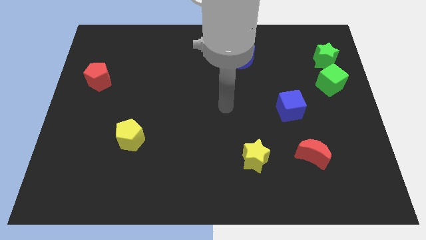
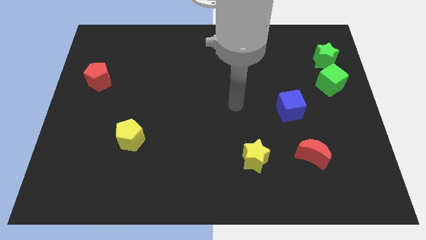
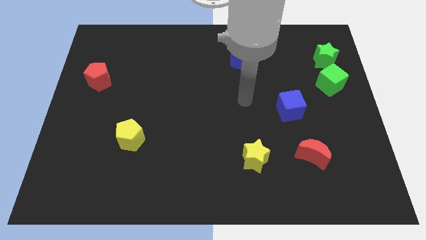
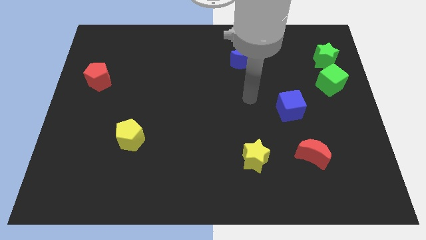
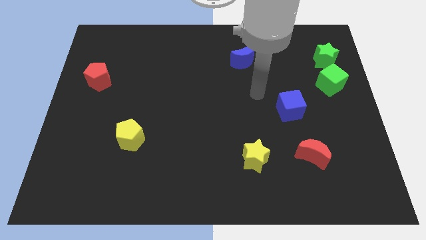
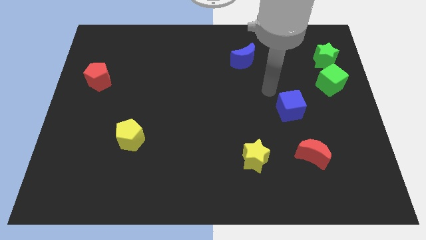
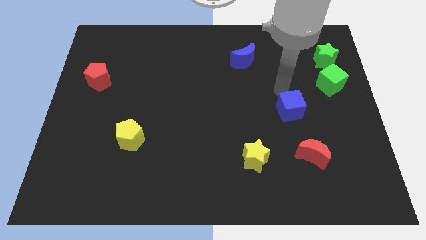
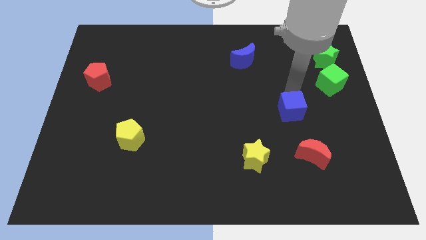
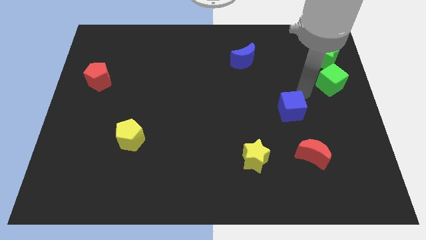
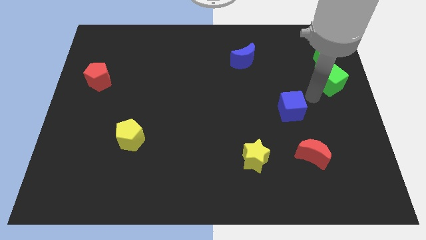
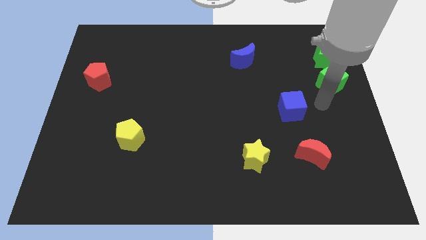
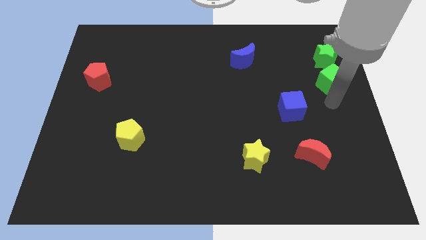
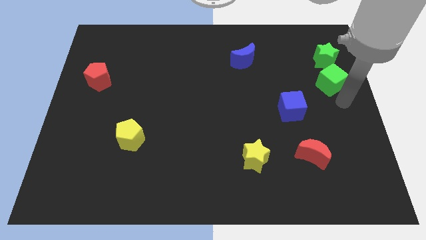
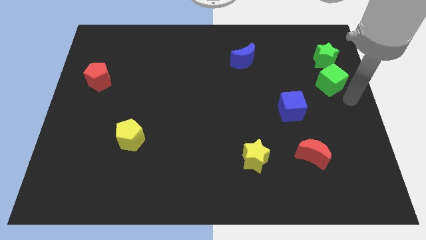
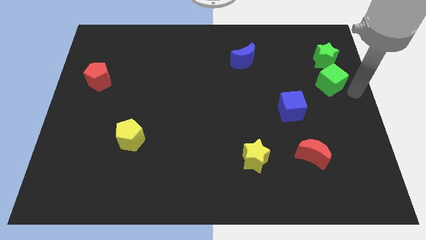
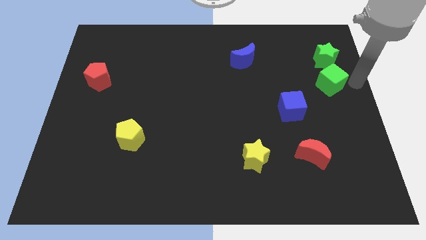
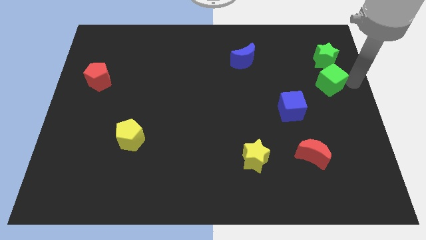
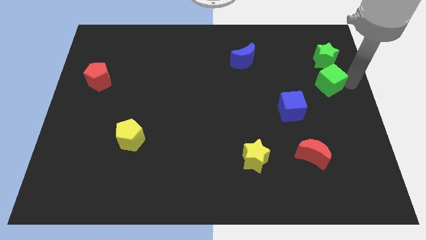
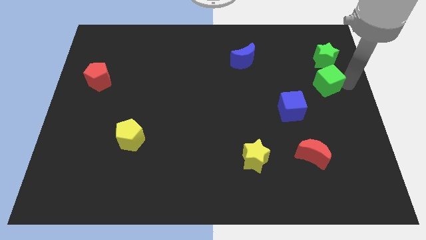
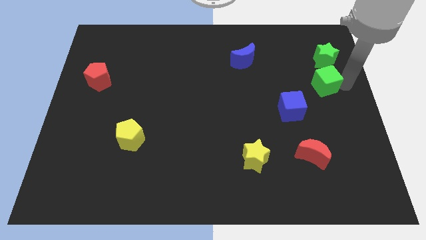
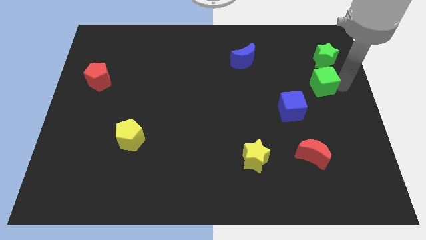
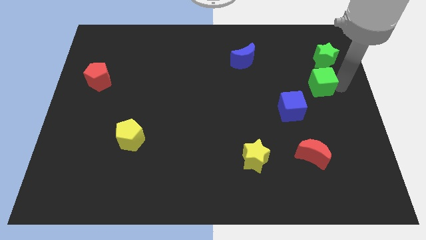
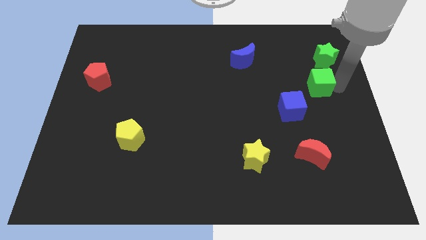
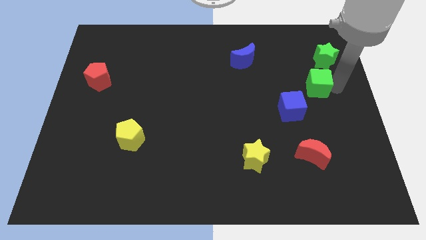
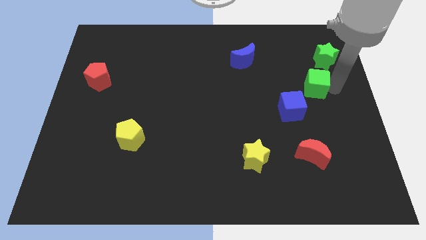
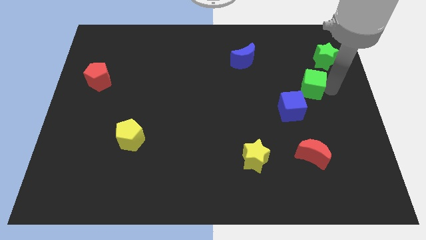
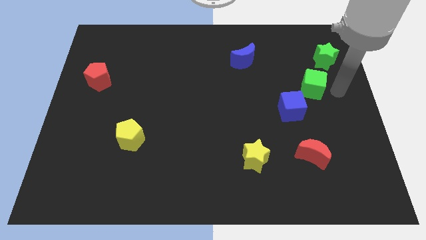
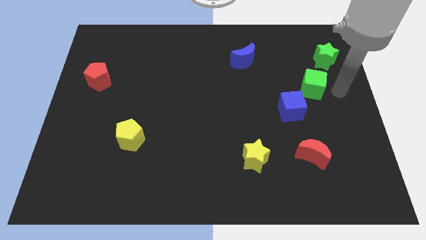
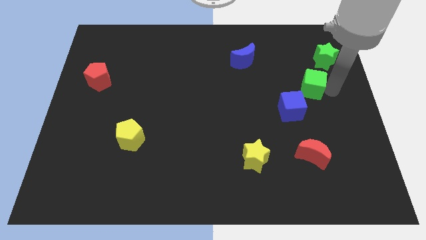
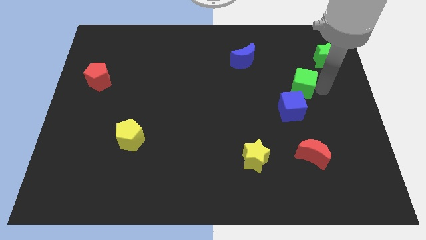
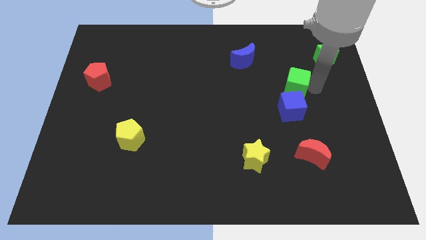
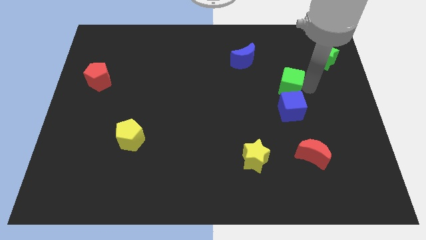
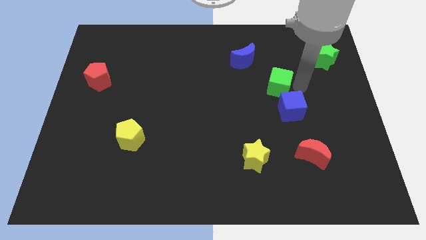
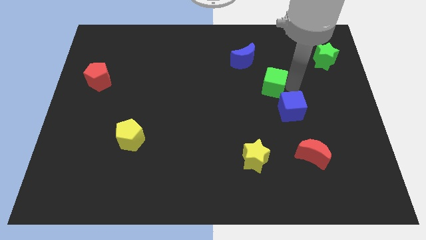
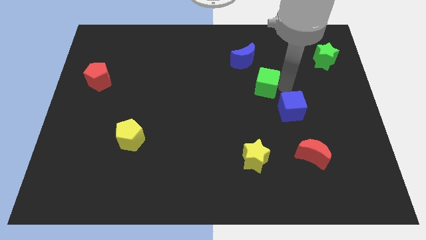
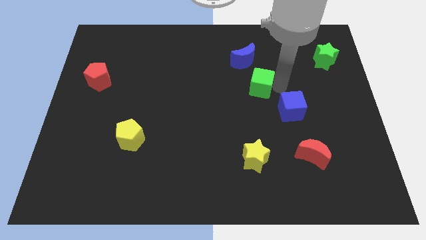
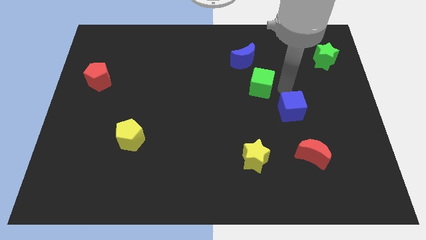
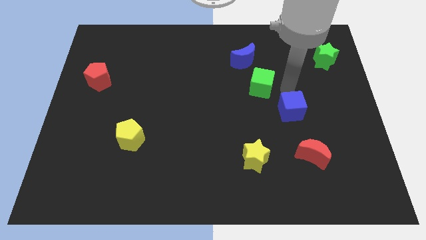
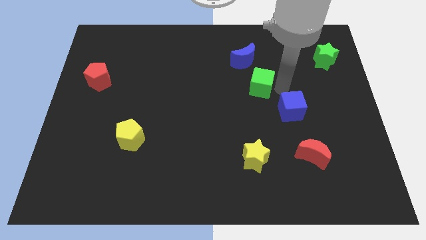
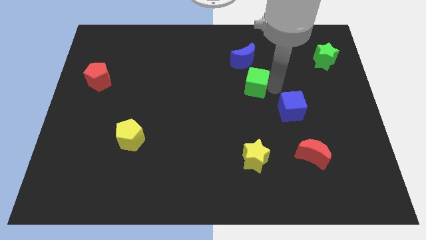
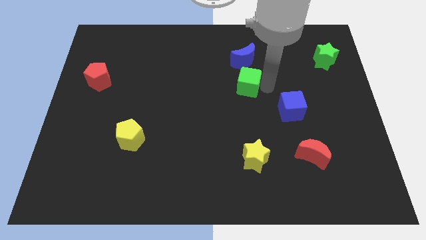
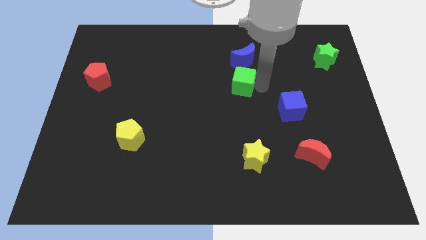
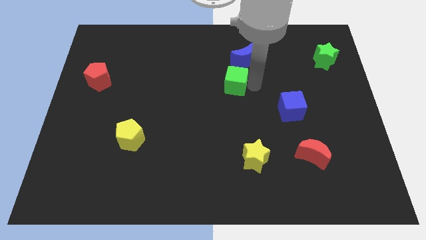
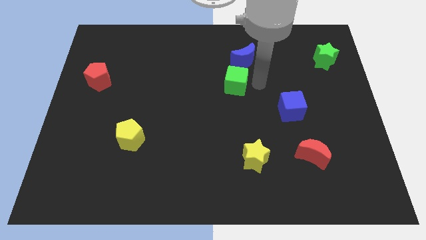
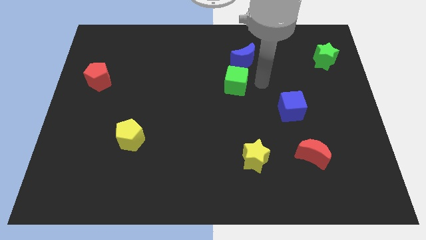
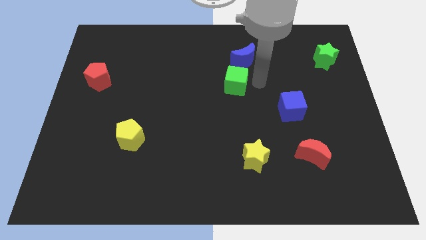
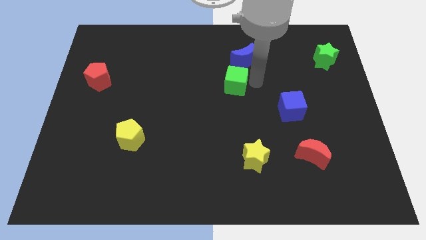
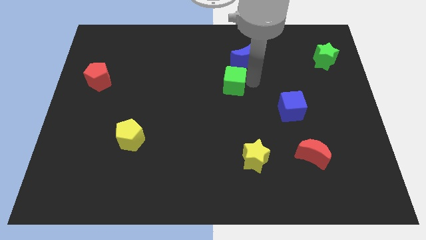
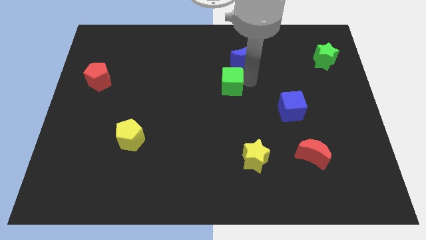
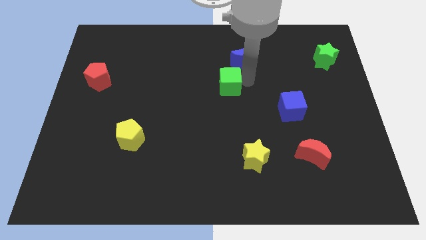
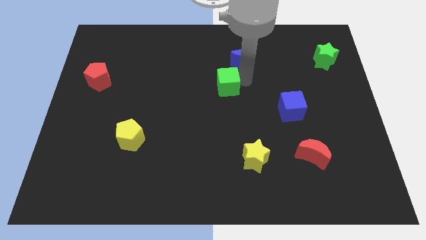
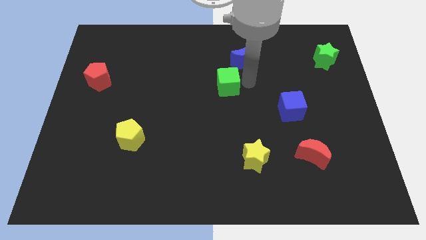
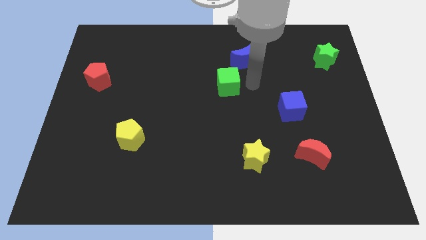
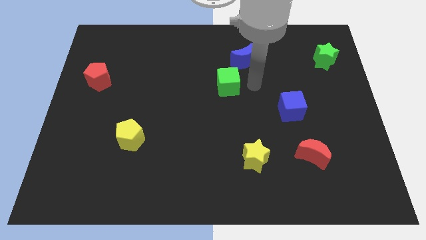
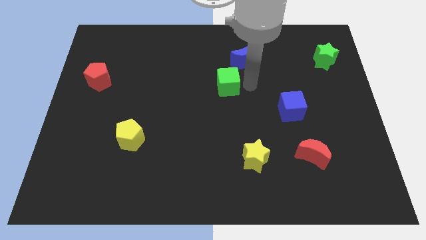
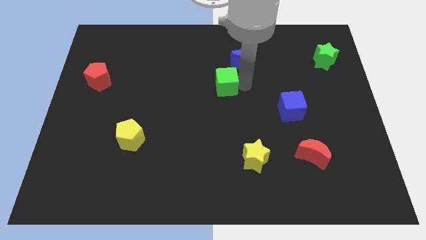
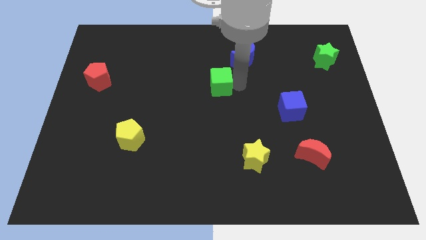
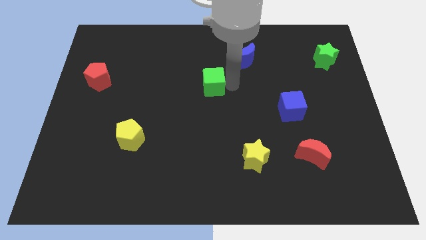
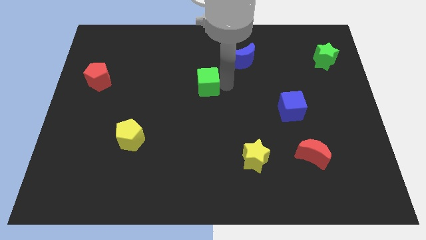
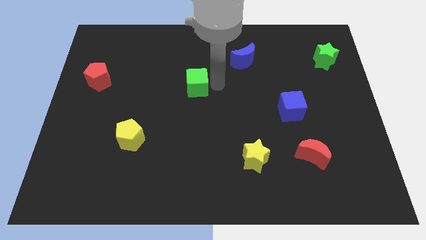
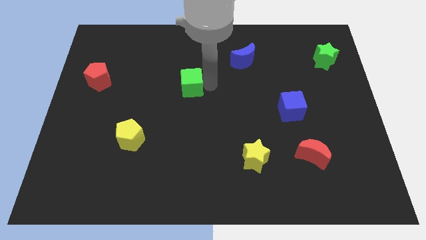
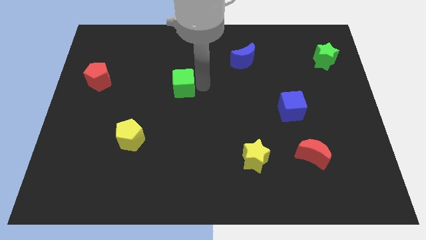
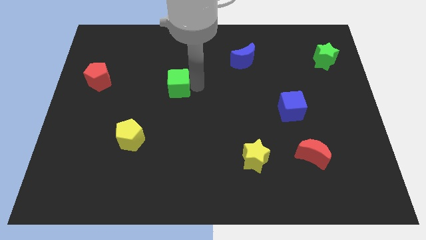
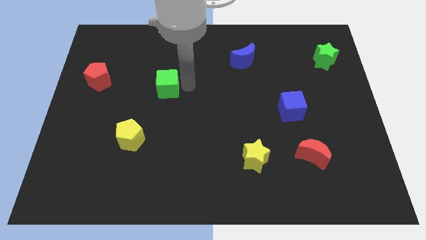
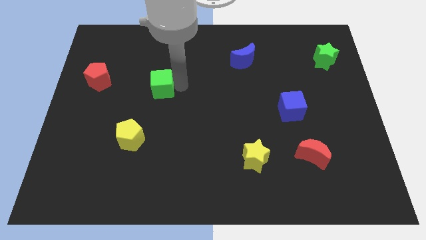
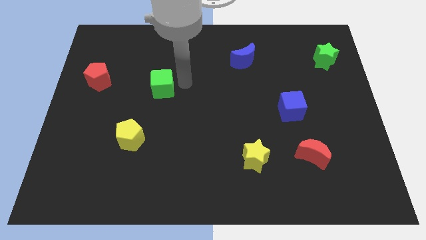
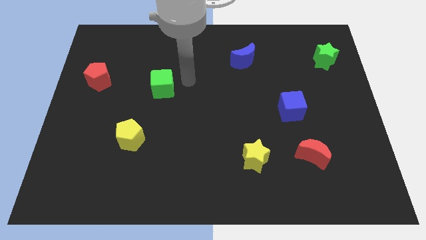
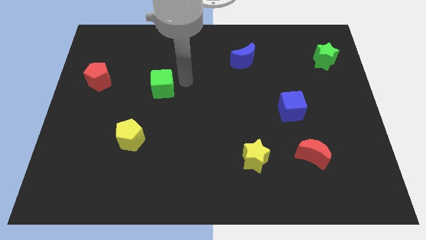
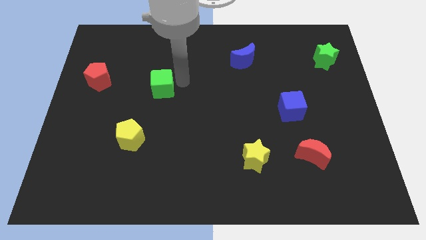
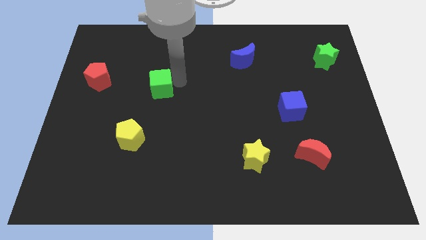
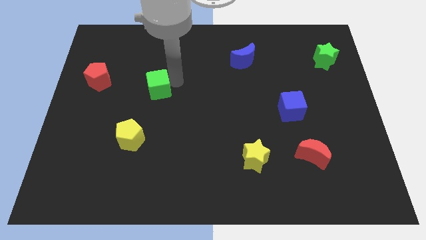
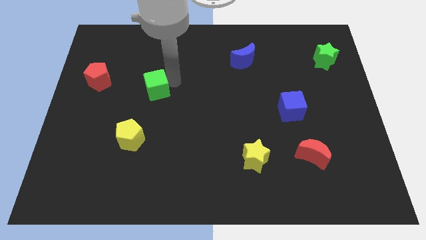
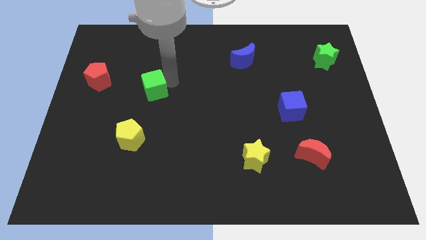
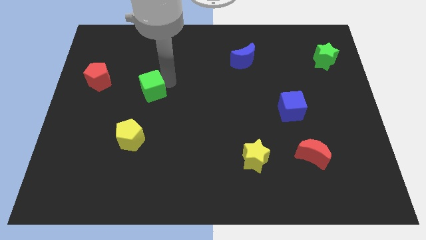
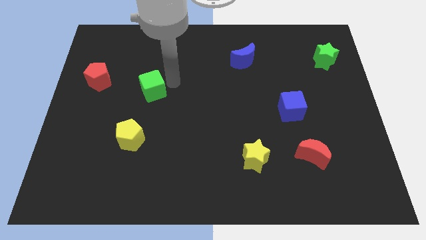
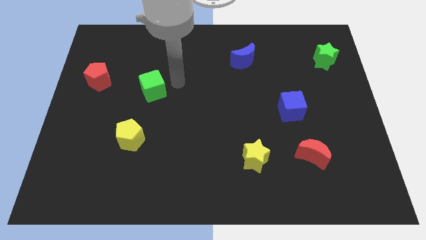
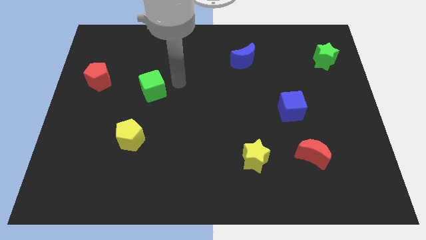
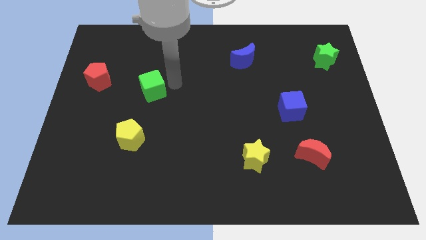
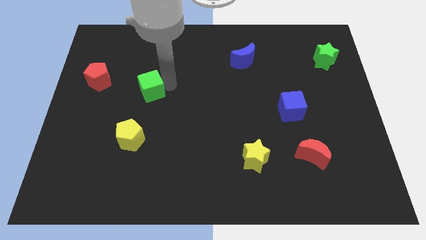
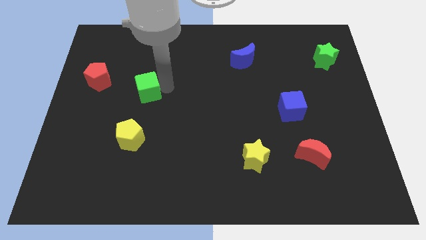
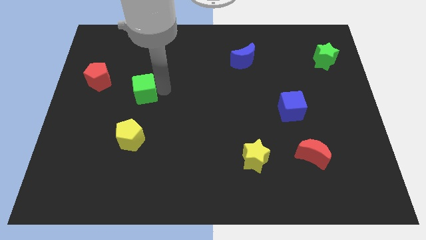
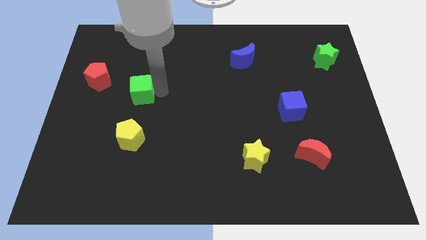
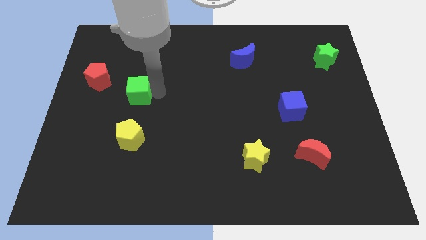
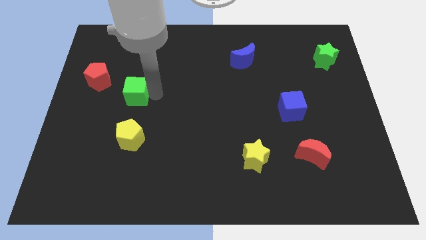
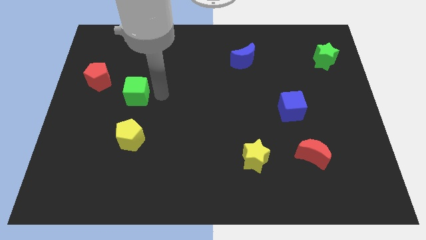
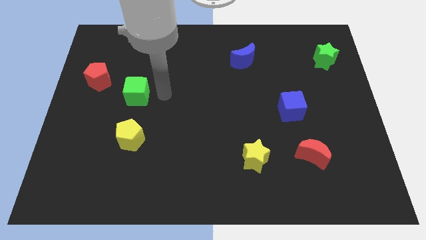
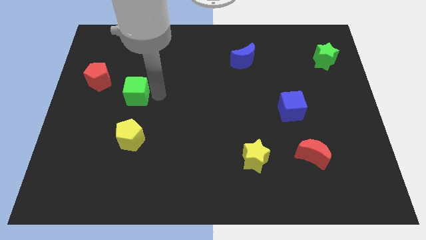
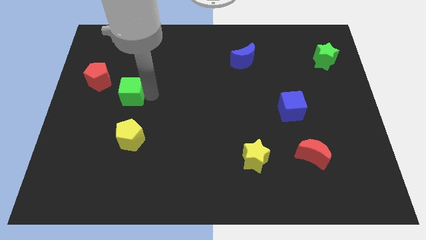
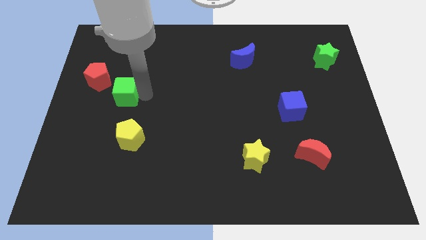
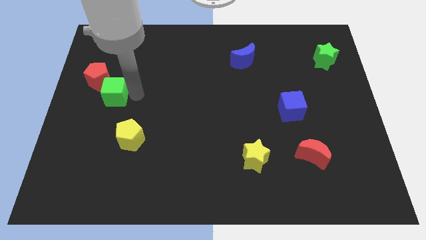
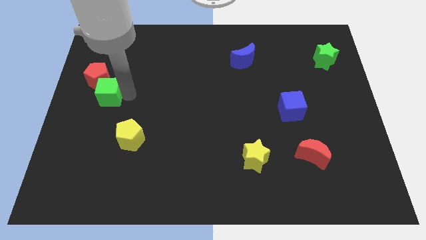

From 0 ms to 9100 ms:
put the green cube to the center left
